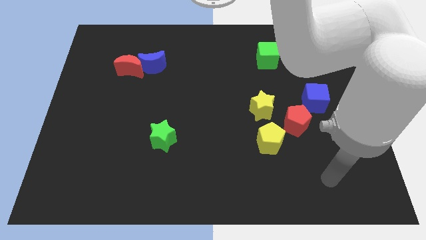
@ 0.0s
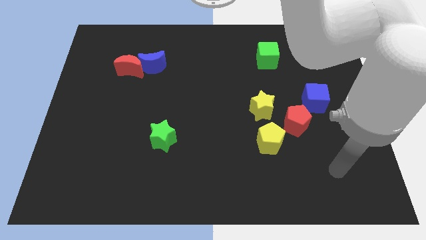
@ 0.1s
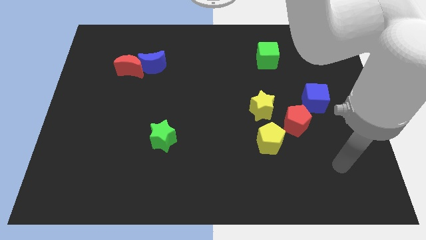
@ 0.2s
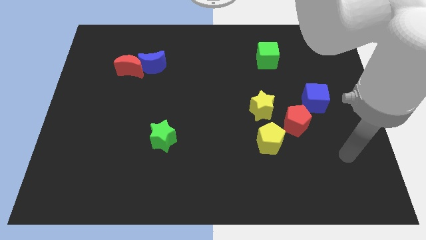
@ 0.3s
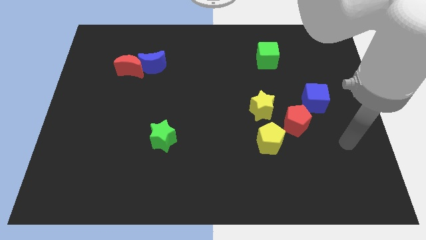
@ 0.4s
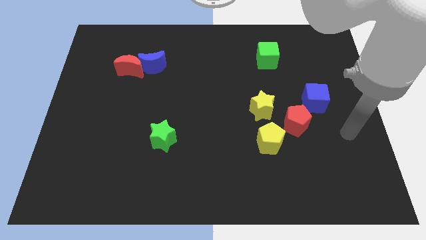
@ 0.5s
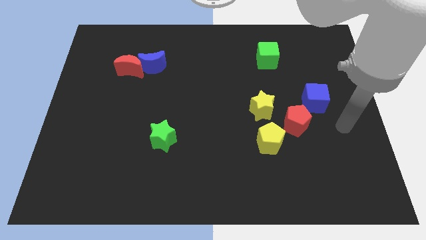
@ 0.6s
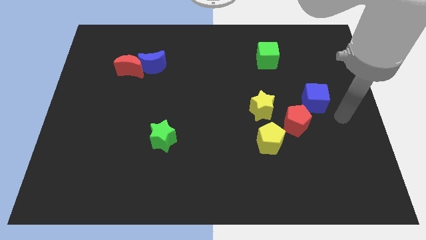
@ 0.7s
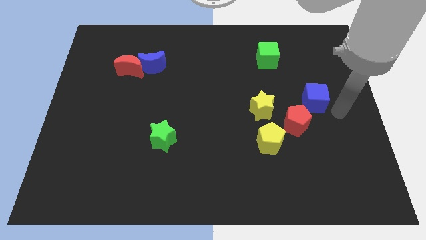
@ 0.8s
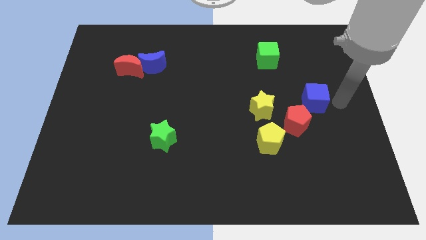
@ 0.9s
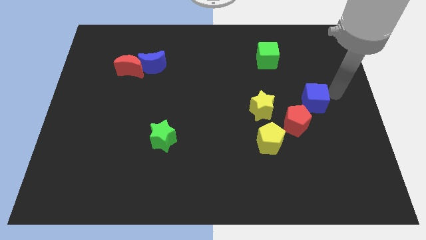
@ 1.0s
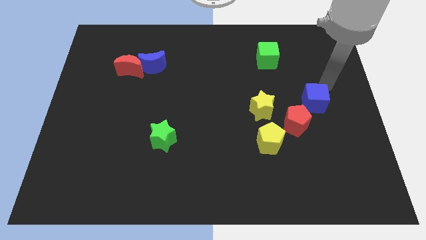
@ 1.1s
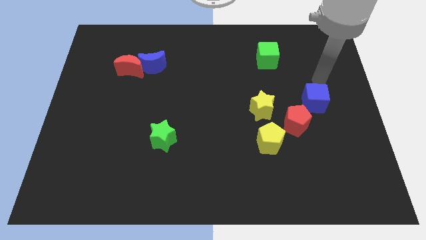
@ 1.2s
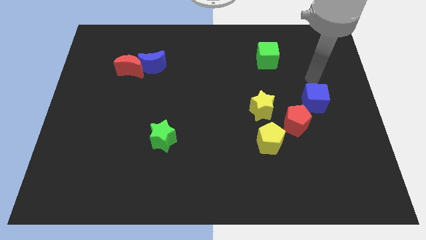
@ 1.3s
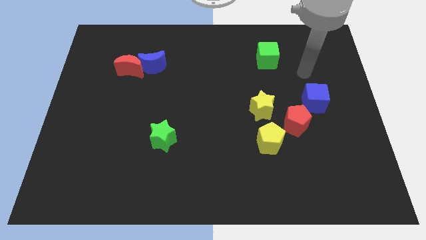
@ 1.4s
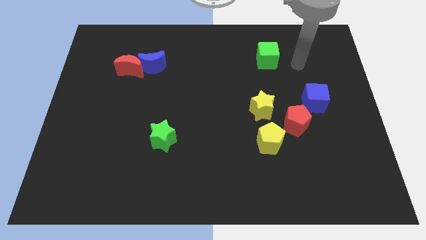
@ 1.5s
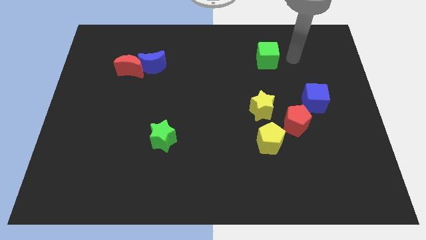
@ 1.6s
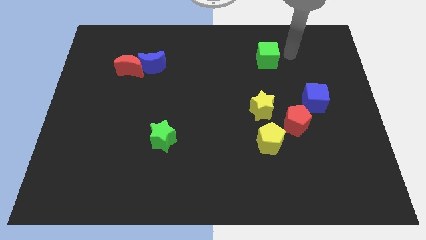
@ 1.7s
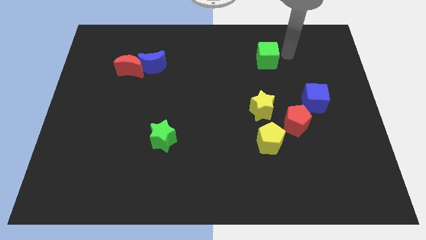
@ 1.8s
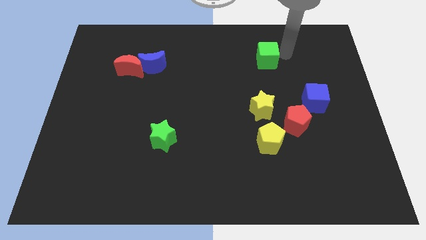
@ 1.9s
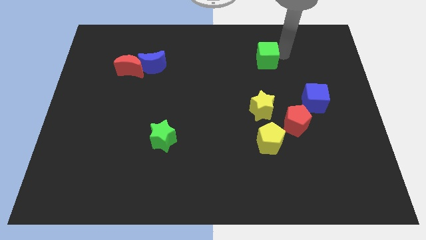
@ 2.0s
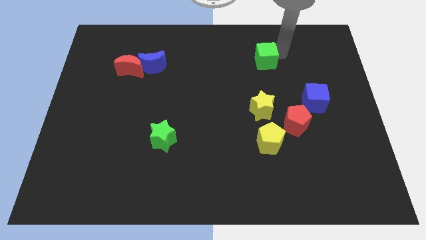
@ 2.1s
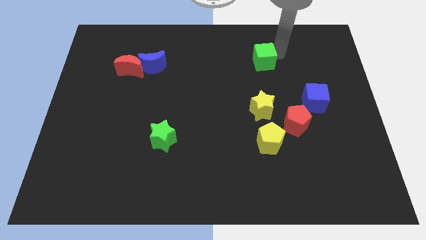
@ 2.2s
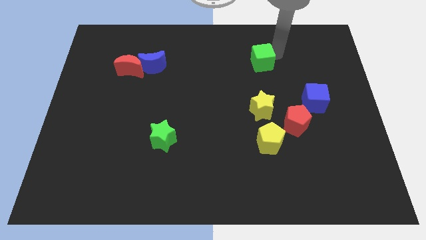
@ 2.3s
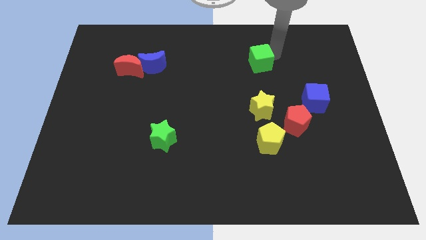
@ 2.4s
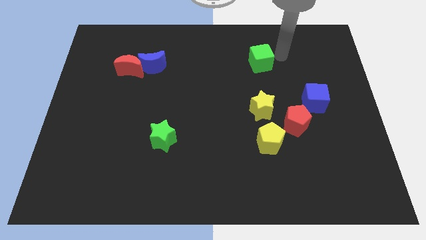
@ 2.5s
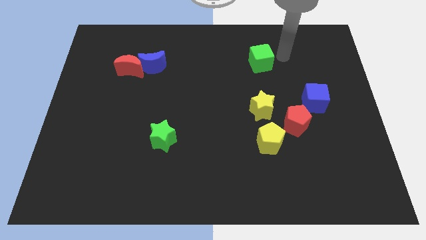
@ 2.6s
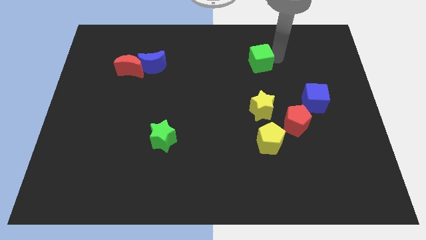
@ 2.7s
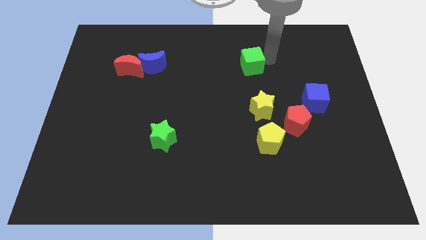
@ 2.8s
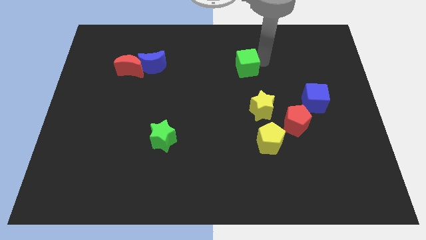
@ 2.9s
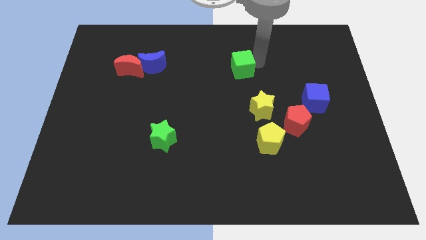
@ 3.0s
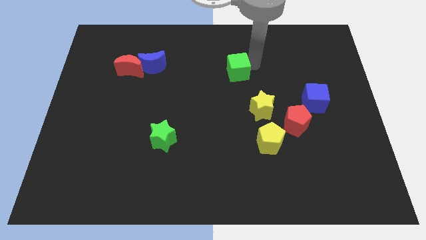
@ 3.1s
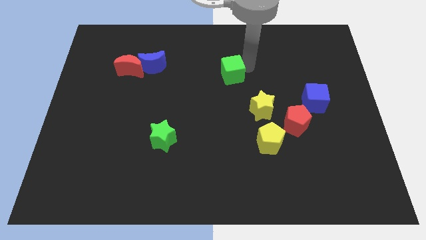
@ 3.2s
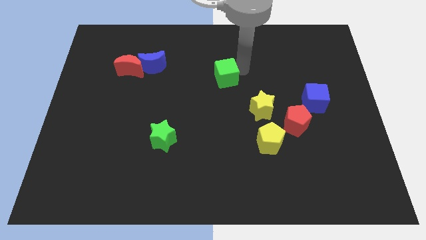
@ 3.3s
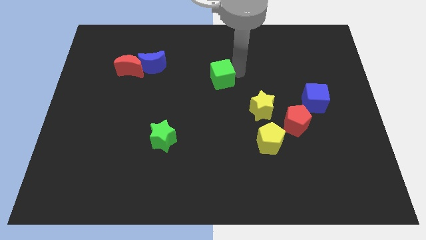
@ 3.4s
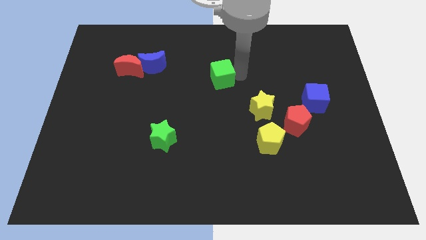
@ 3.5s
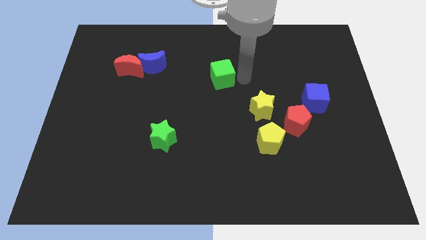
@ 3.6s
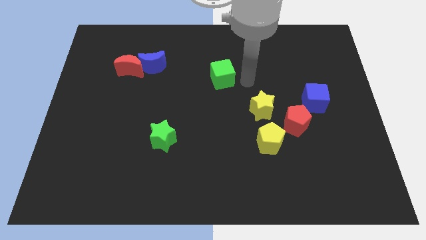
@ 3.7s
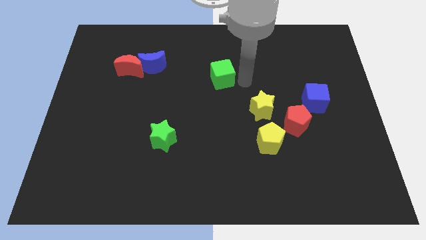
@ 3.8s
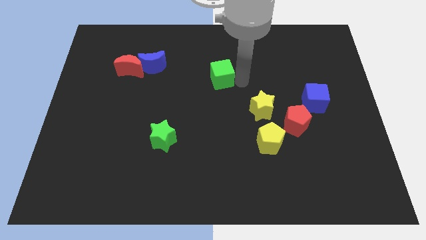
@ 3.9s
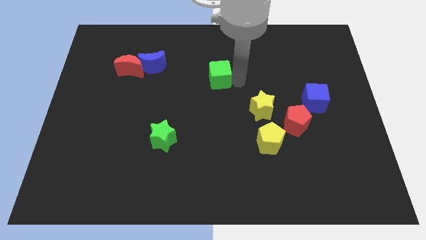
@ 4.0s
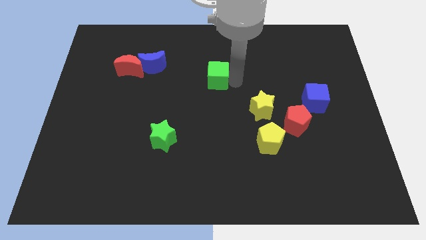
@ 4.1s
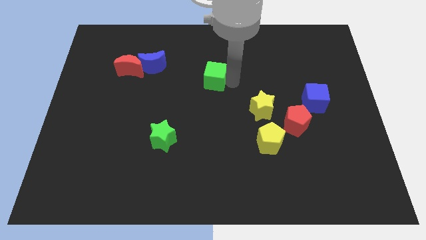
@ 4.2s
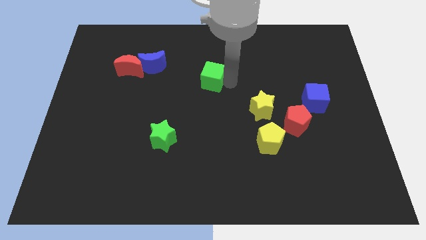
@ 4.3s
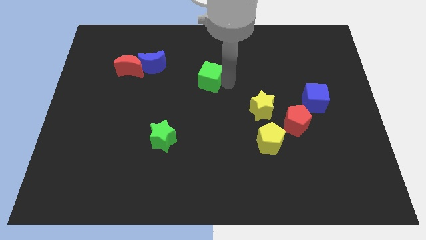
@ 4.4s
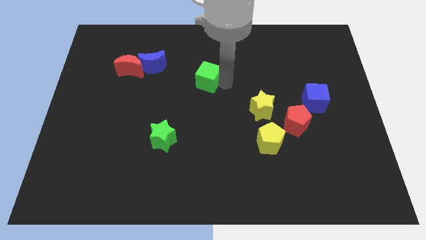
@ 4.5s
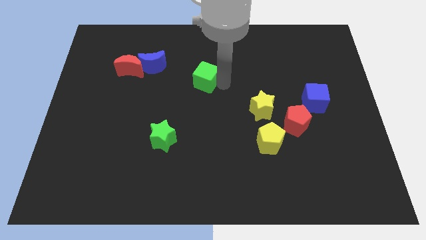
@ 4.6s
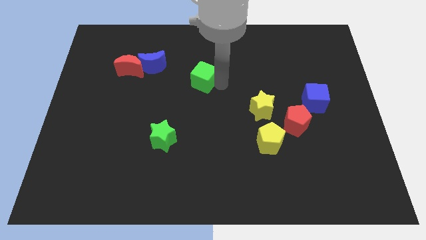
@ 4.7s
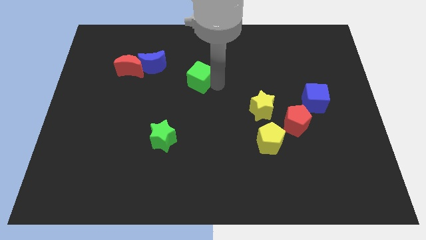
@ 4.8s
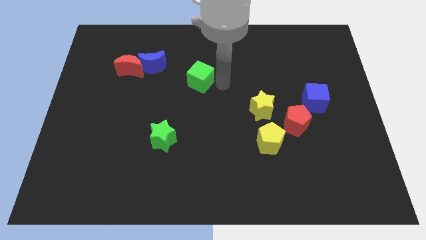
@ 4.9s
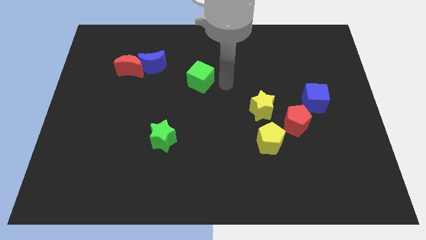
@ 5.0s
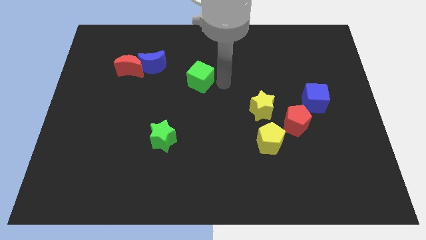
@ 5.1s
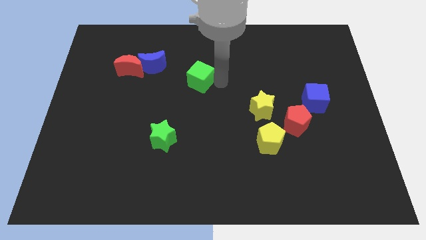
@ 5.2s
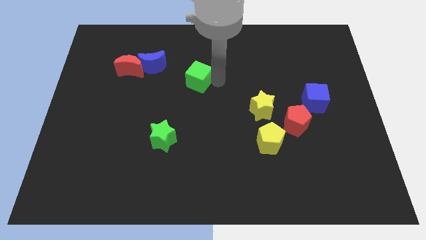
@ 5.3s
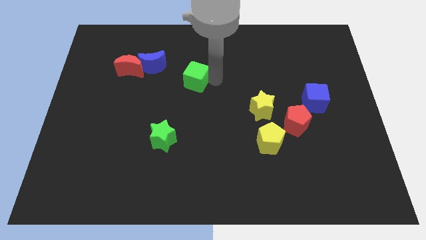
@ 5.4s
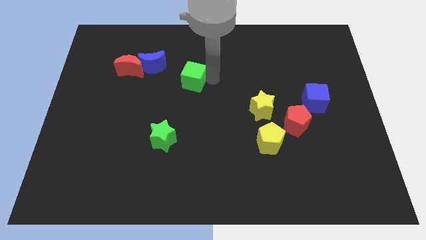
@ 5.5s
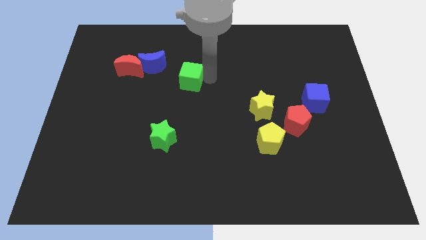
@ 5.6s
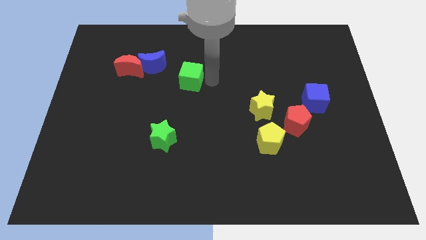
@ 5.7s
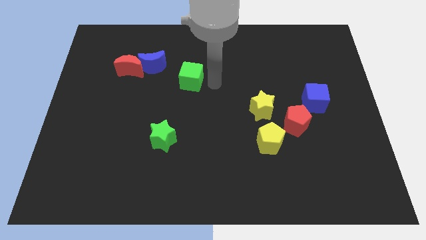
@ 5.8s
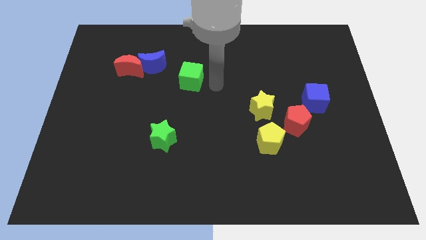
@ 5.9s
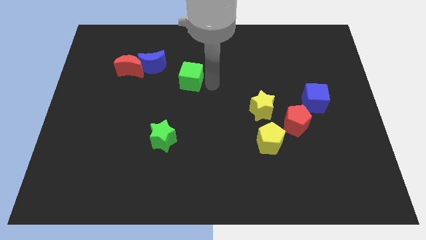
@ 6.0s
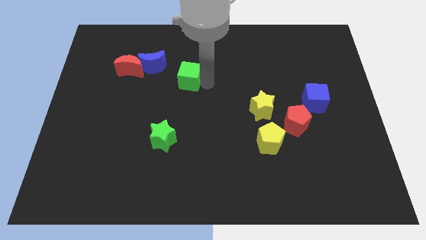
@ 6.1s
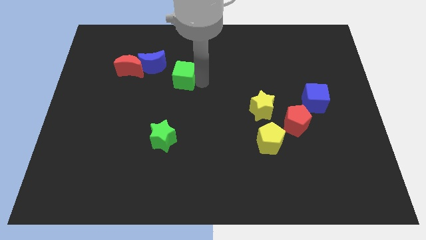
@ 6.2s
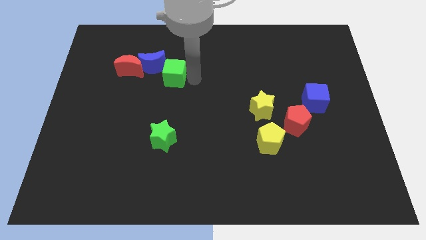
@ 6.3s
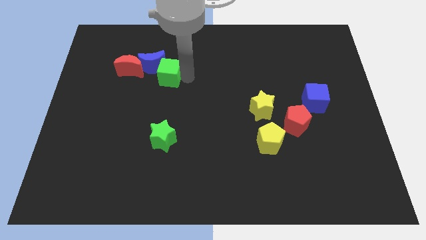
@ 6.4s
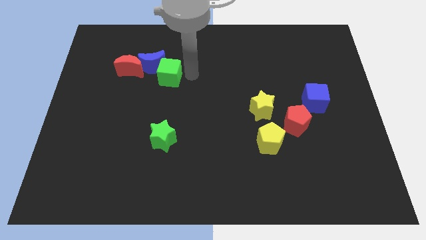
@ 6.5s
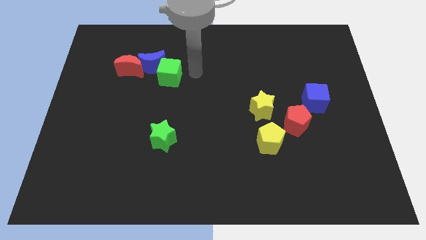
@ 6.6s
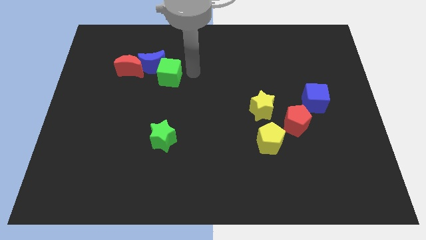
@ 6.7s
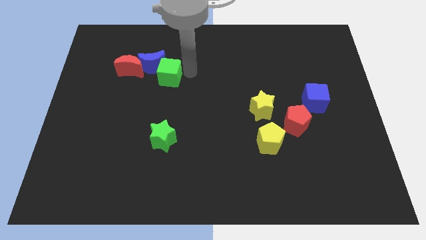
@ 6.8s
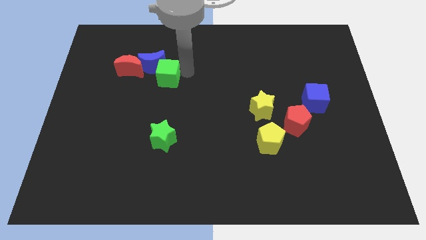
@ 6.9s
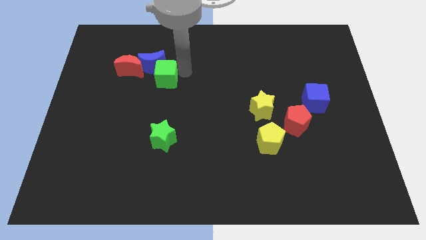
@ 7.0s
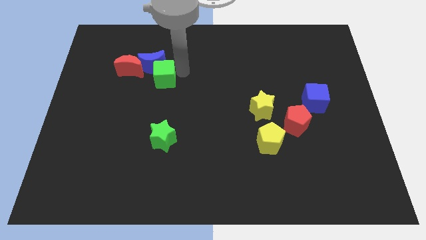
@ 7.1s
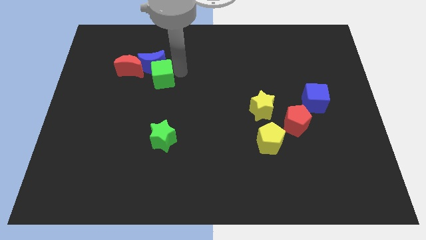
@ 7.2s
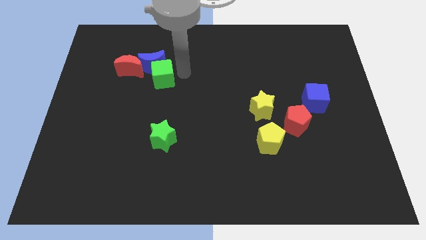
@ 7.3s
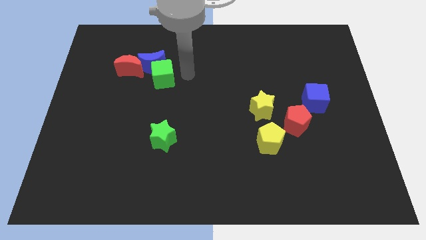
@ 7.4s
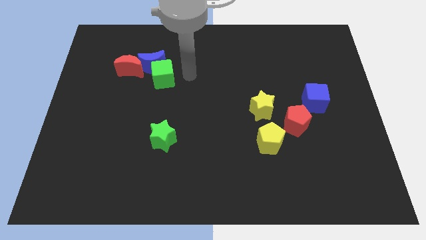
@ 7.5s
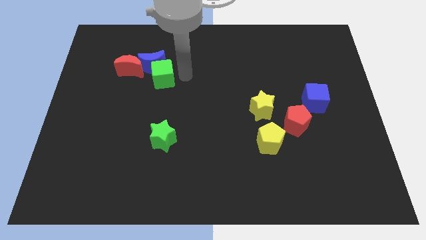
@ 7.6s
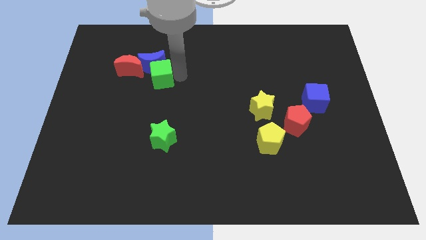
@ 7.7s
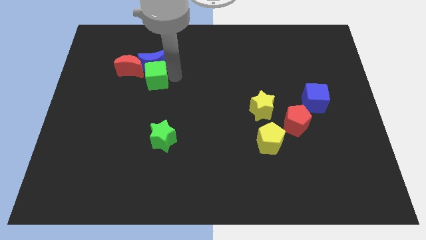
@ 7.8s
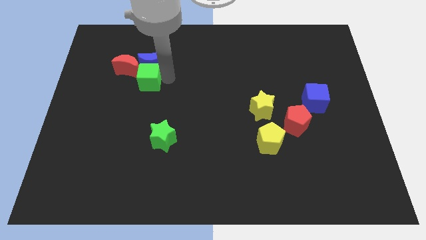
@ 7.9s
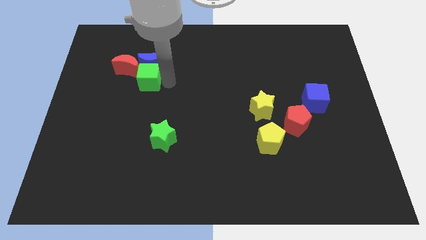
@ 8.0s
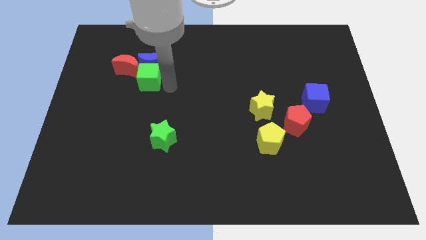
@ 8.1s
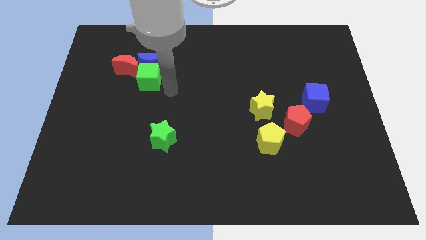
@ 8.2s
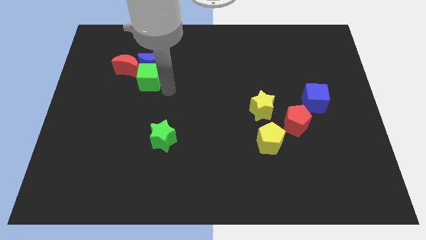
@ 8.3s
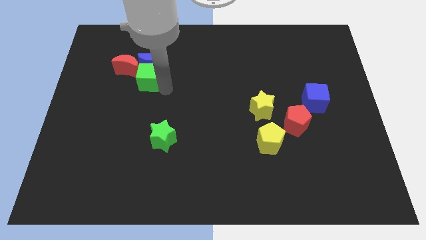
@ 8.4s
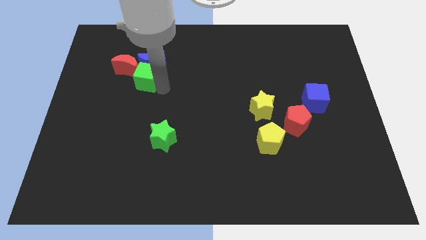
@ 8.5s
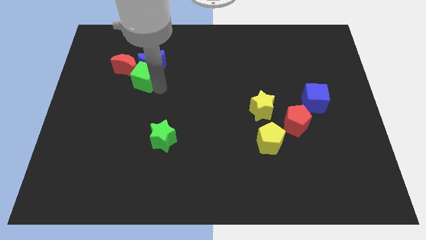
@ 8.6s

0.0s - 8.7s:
move the green cube next to the red moon
